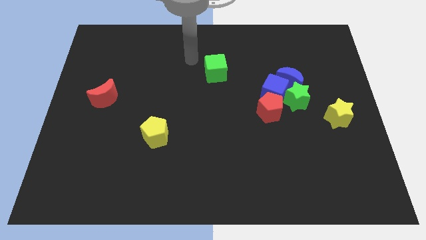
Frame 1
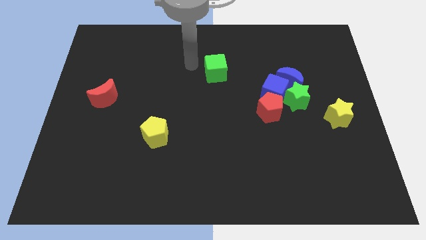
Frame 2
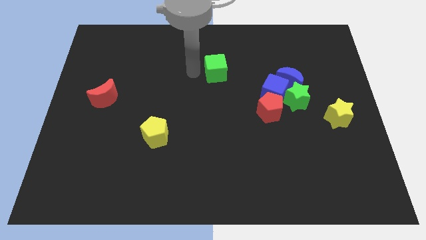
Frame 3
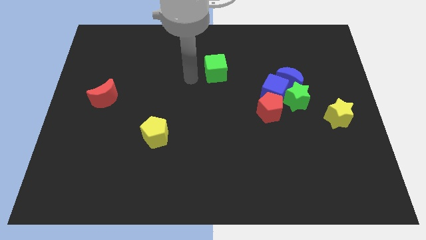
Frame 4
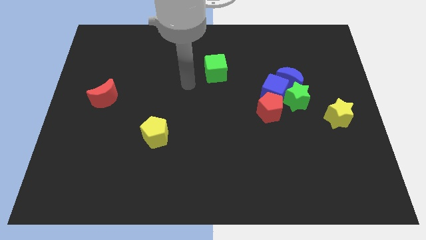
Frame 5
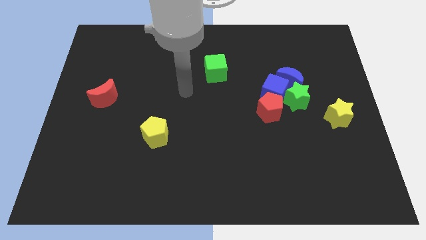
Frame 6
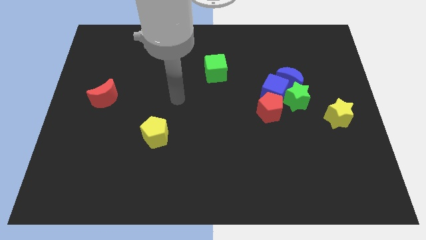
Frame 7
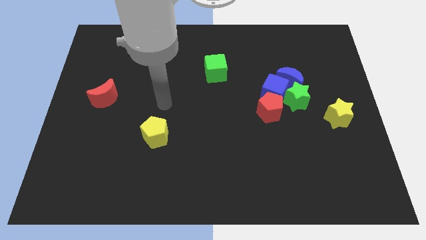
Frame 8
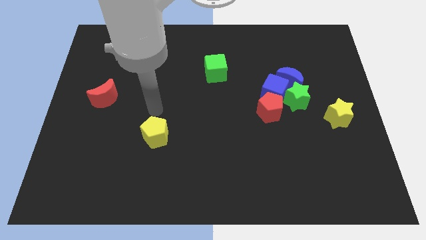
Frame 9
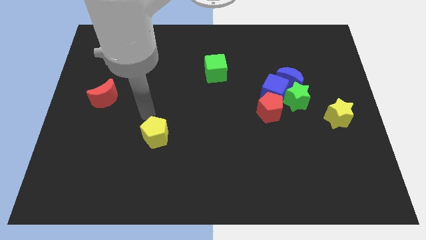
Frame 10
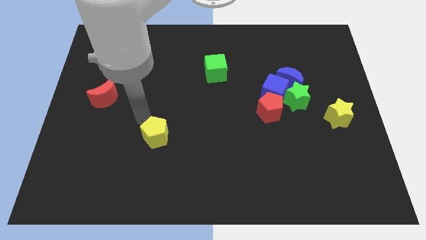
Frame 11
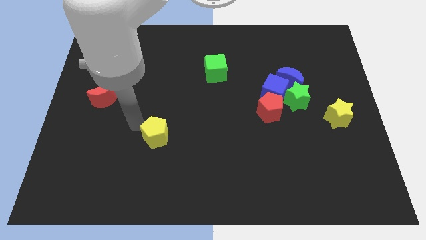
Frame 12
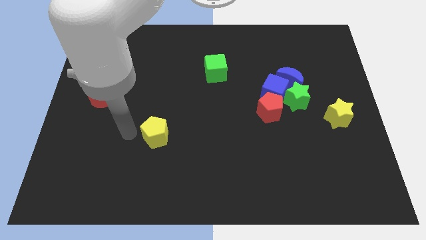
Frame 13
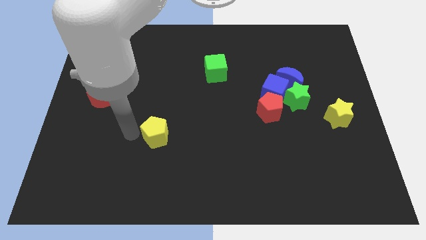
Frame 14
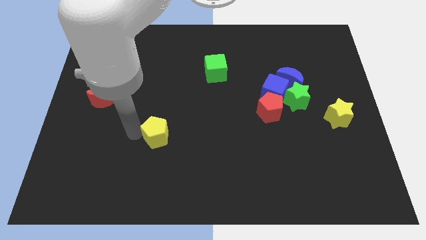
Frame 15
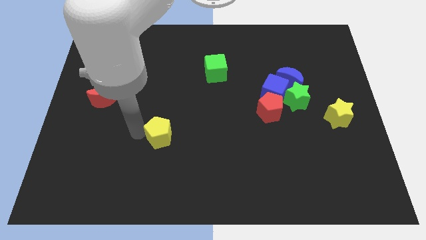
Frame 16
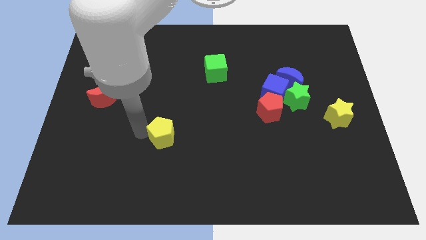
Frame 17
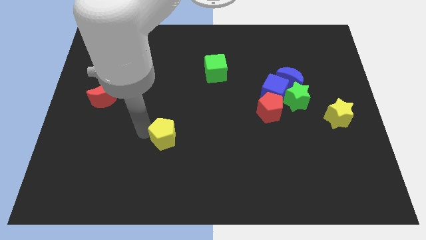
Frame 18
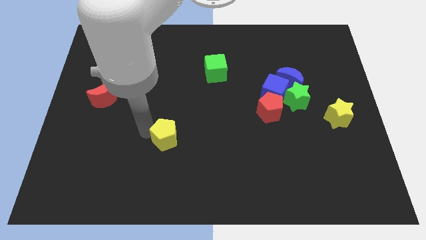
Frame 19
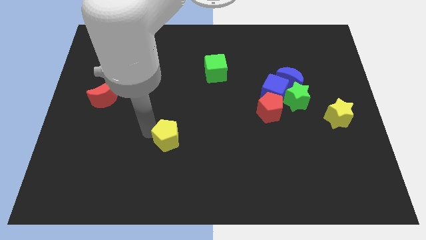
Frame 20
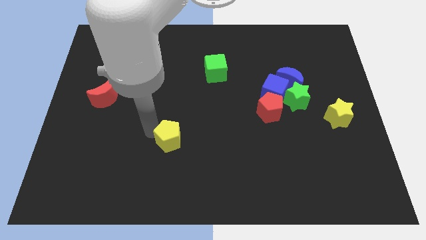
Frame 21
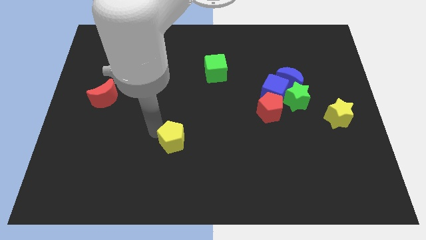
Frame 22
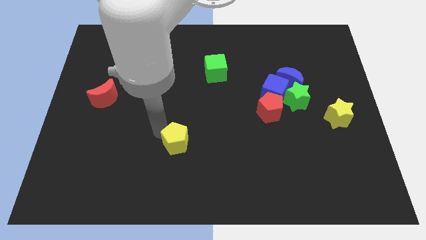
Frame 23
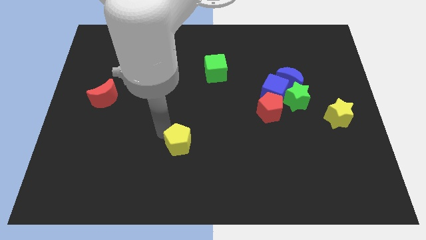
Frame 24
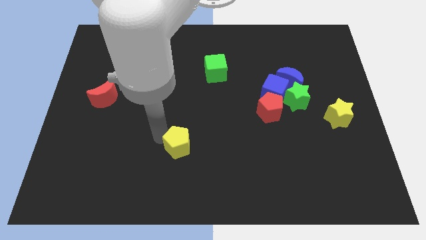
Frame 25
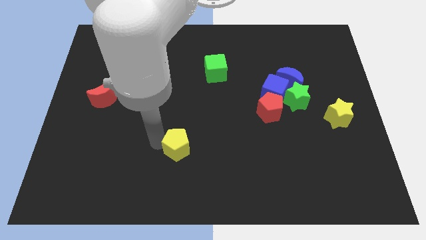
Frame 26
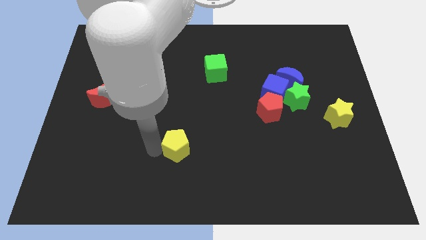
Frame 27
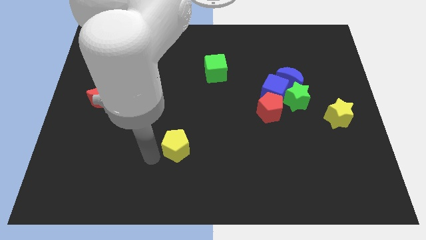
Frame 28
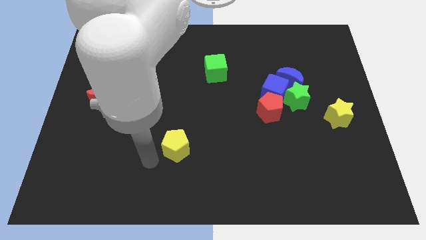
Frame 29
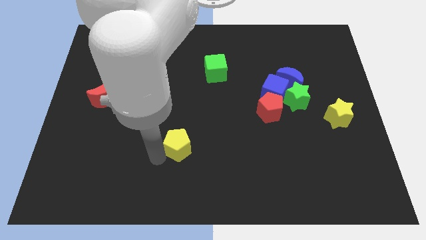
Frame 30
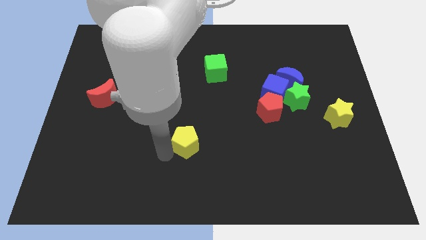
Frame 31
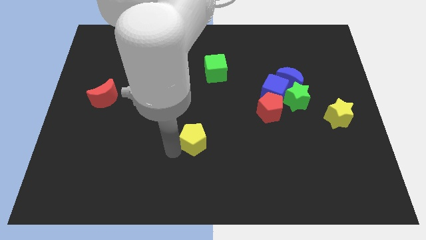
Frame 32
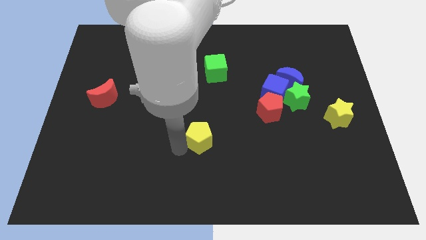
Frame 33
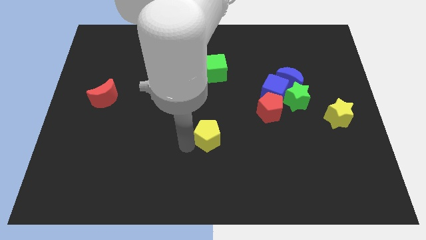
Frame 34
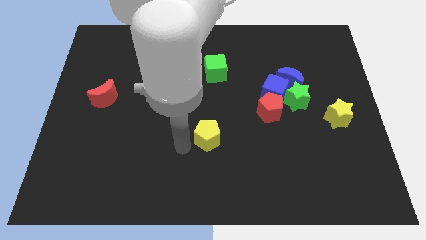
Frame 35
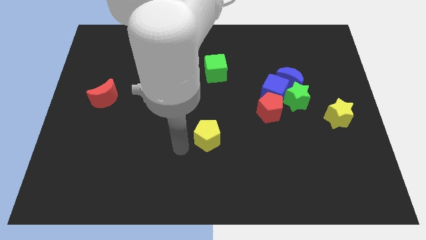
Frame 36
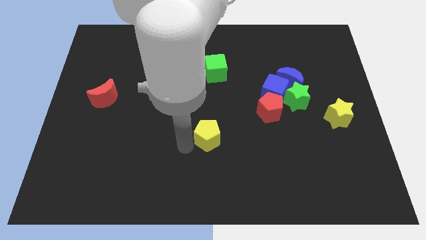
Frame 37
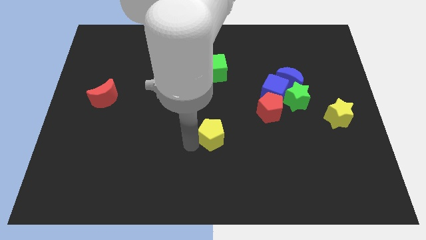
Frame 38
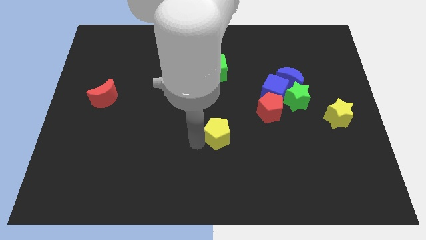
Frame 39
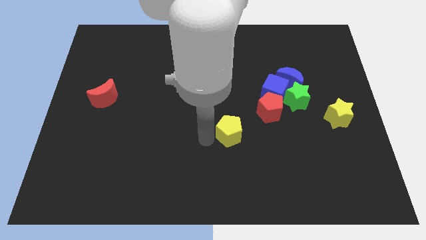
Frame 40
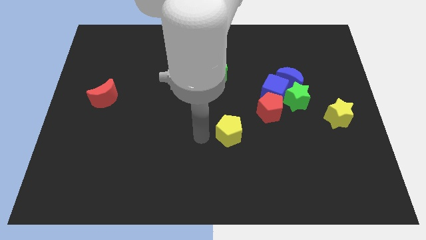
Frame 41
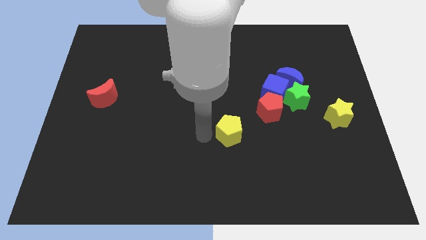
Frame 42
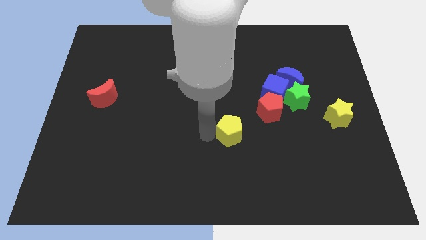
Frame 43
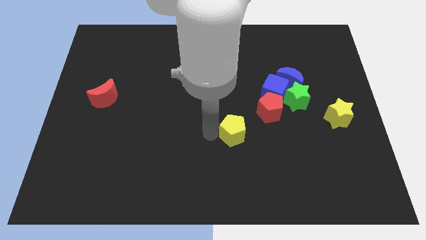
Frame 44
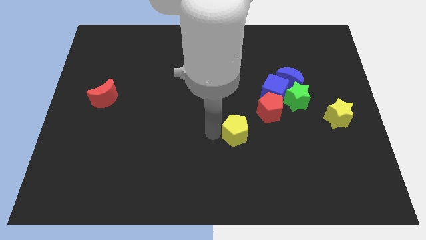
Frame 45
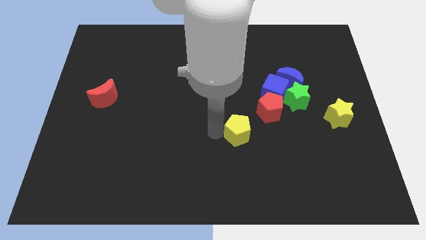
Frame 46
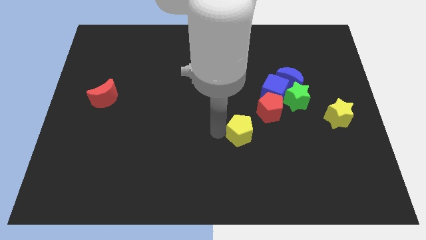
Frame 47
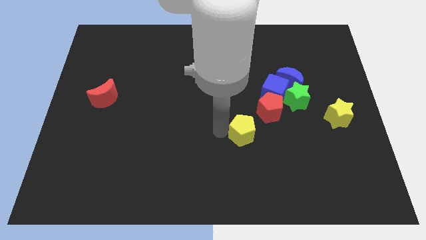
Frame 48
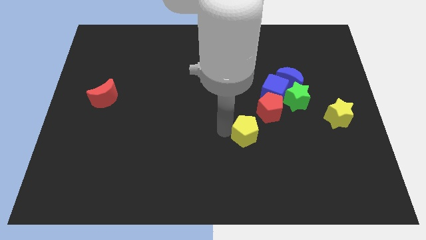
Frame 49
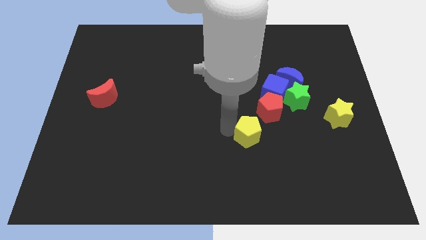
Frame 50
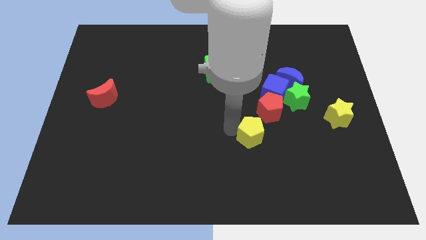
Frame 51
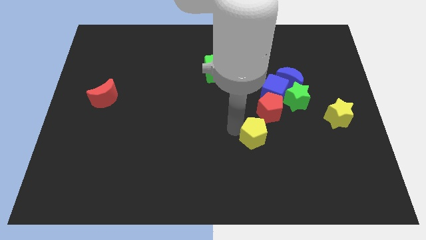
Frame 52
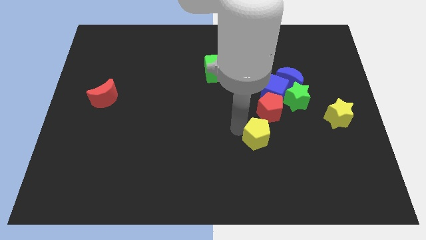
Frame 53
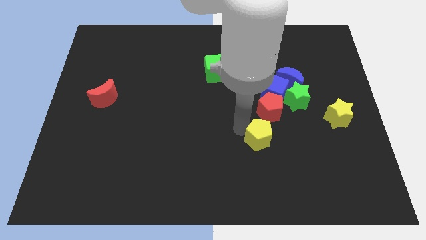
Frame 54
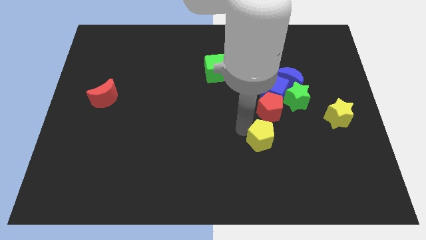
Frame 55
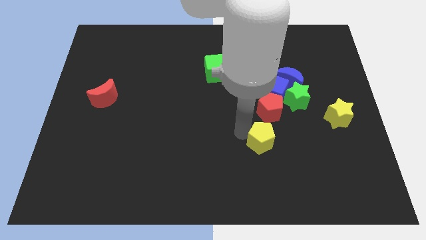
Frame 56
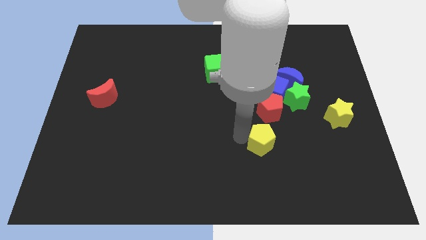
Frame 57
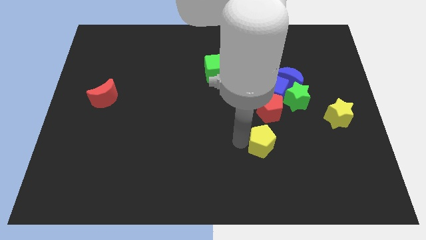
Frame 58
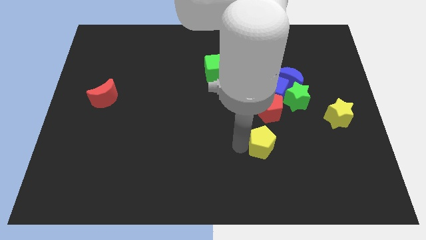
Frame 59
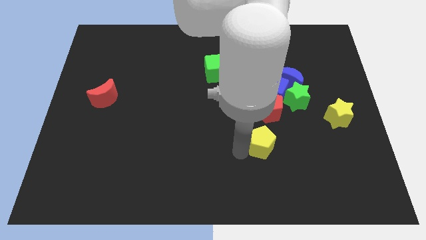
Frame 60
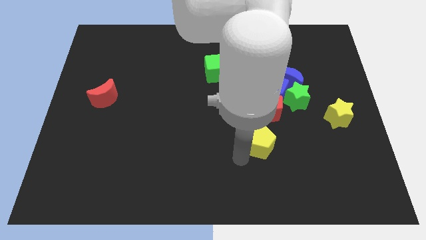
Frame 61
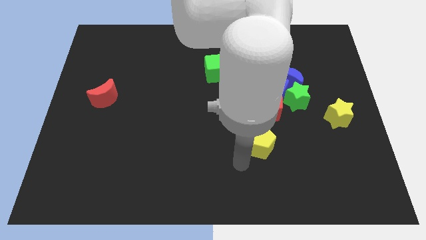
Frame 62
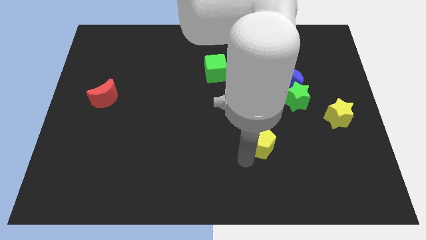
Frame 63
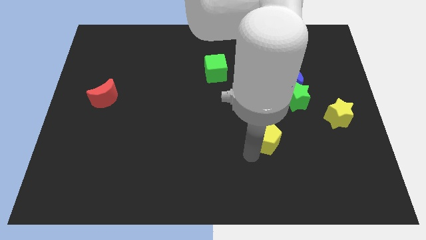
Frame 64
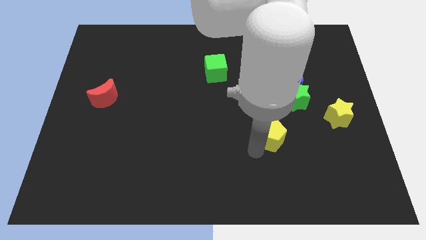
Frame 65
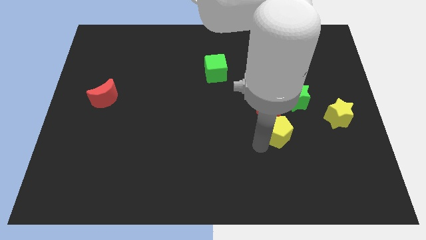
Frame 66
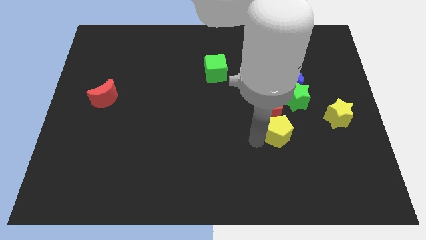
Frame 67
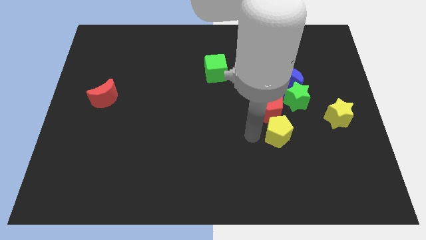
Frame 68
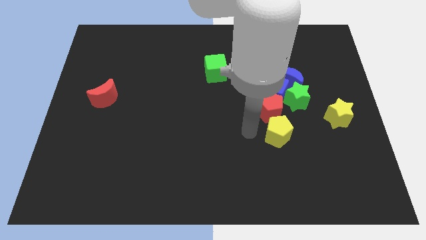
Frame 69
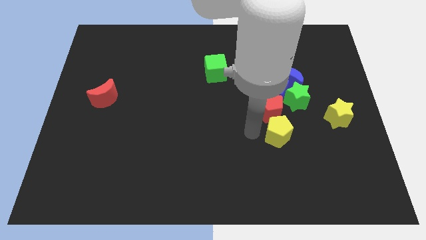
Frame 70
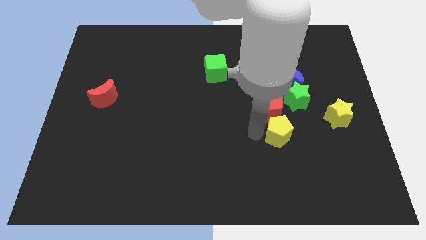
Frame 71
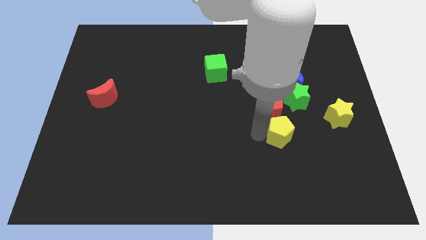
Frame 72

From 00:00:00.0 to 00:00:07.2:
move the yellow pentagon below the green star
